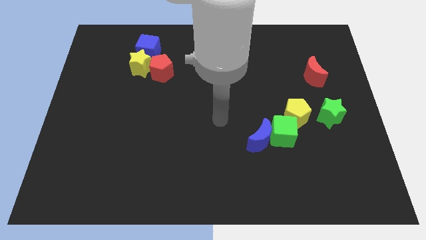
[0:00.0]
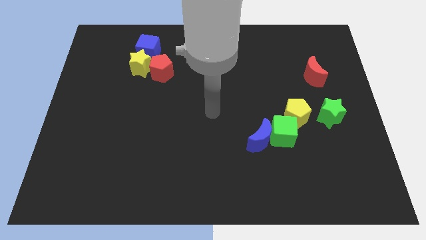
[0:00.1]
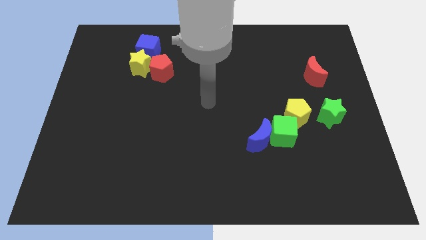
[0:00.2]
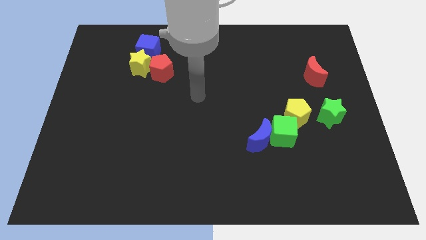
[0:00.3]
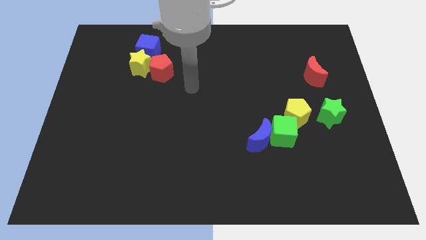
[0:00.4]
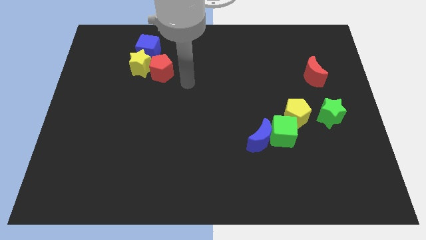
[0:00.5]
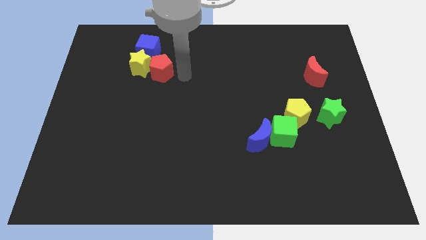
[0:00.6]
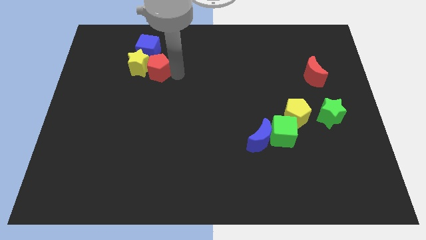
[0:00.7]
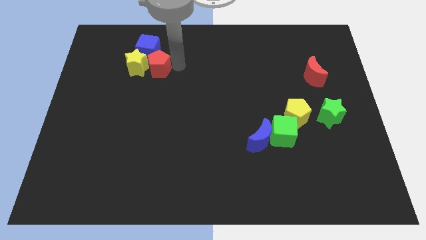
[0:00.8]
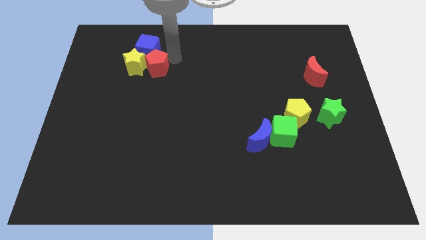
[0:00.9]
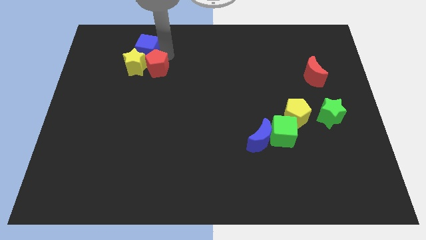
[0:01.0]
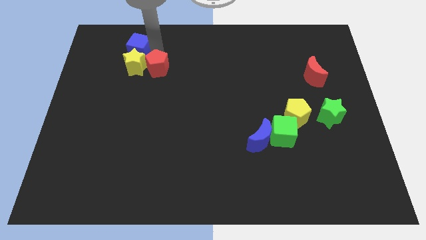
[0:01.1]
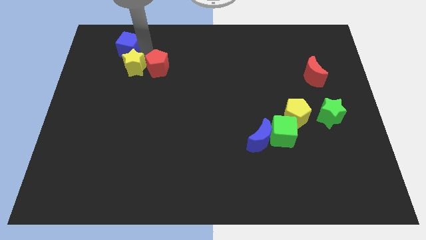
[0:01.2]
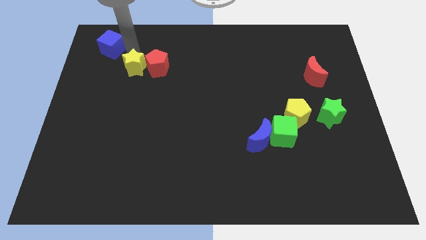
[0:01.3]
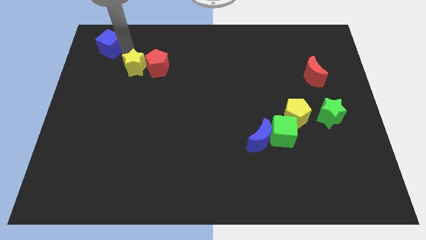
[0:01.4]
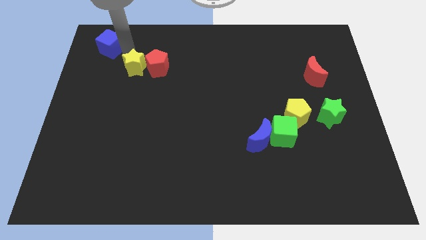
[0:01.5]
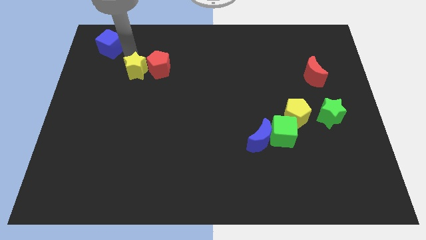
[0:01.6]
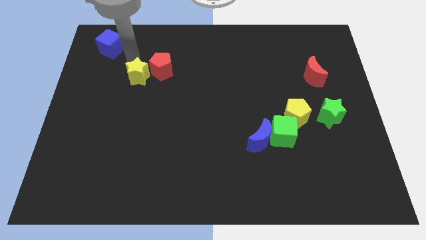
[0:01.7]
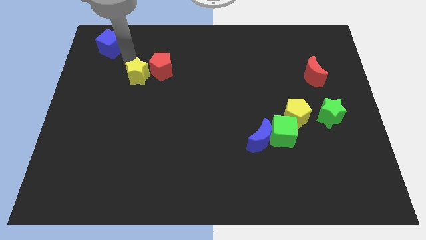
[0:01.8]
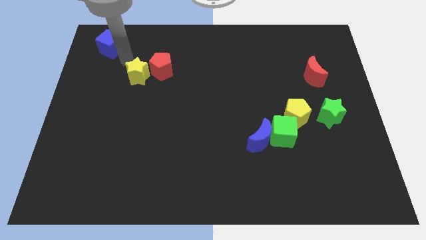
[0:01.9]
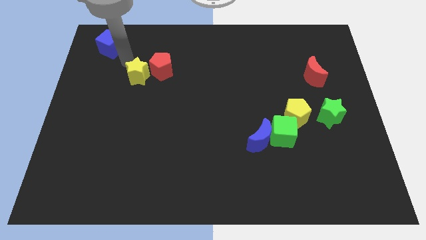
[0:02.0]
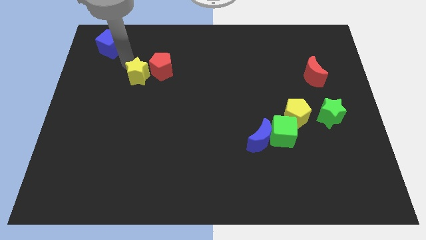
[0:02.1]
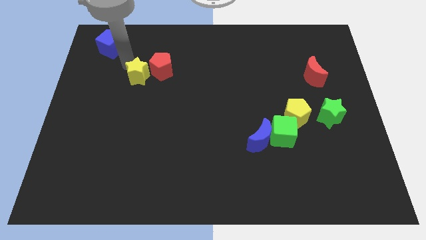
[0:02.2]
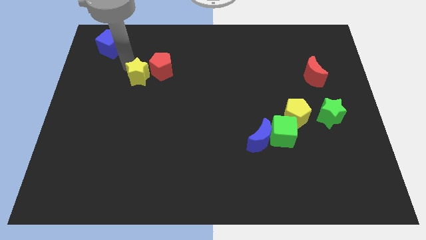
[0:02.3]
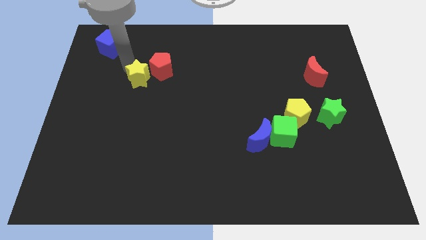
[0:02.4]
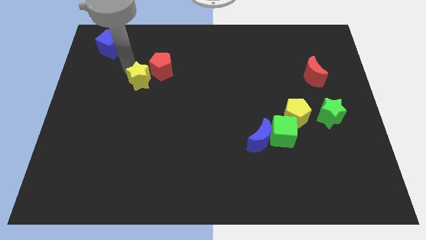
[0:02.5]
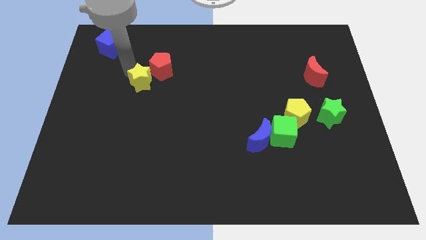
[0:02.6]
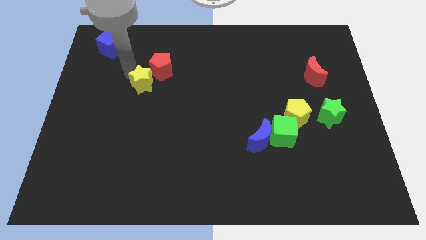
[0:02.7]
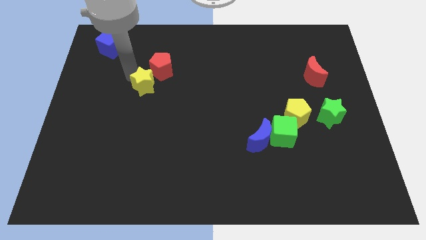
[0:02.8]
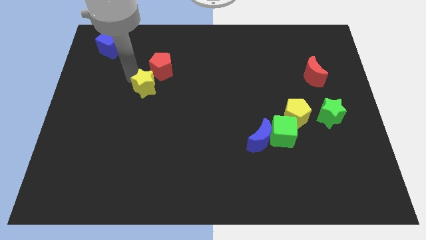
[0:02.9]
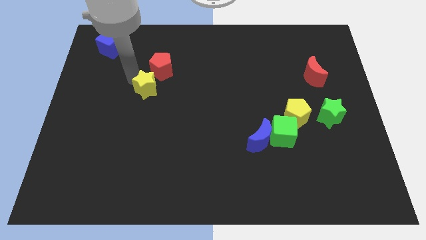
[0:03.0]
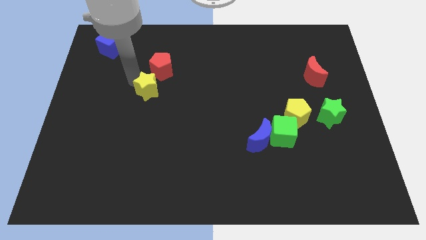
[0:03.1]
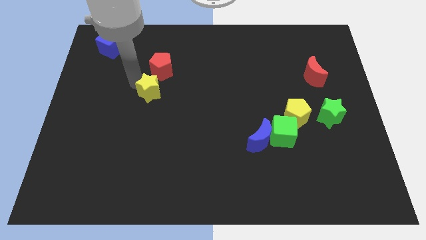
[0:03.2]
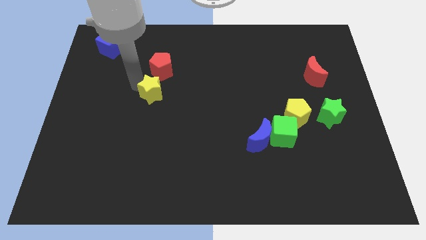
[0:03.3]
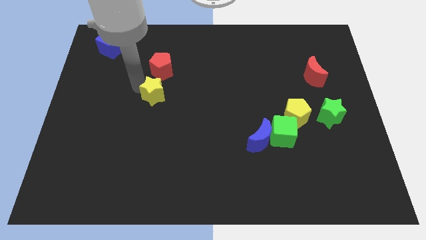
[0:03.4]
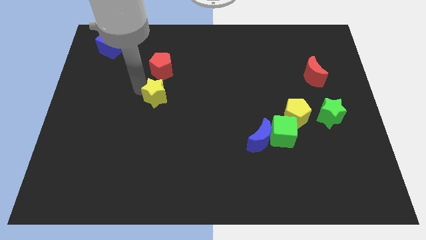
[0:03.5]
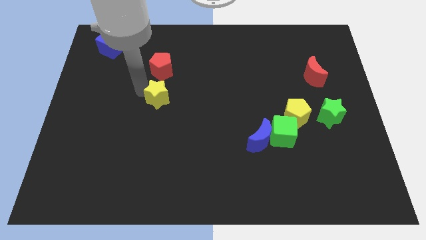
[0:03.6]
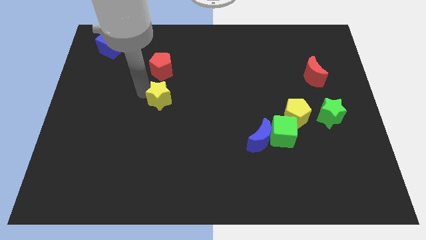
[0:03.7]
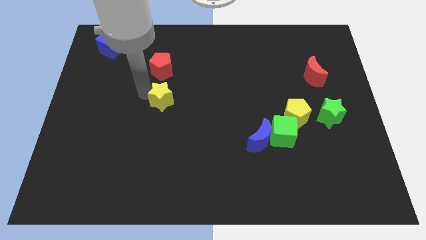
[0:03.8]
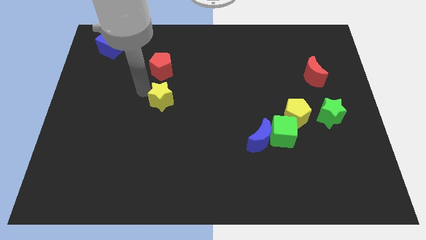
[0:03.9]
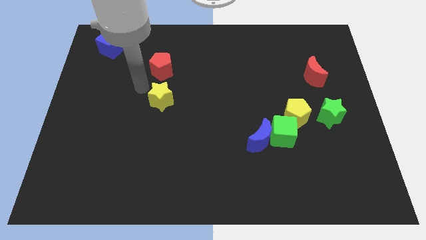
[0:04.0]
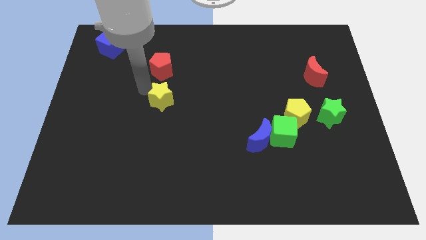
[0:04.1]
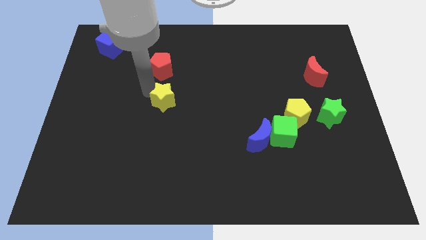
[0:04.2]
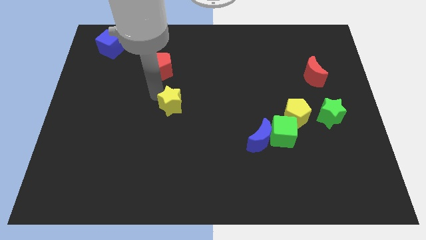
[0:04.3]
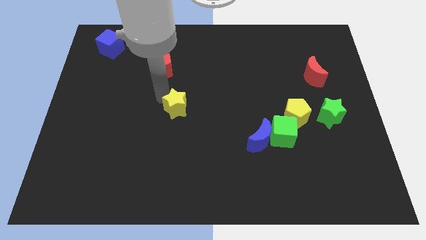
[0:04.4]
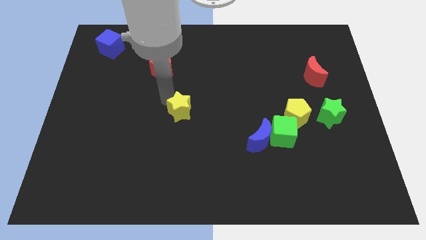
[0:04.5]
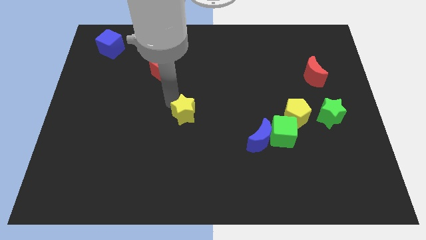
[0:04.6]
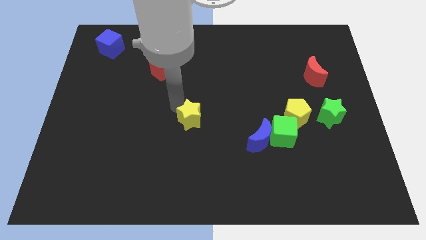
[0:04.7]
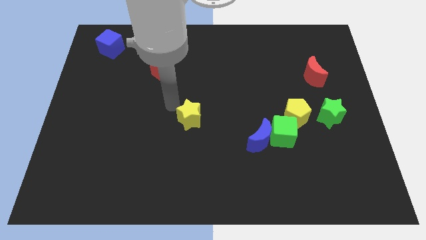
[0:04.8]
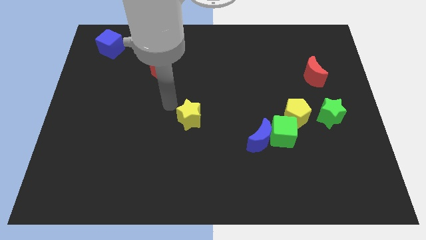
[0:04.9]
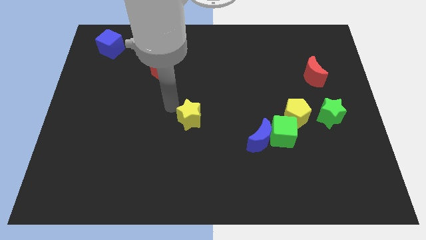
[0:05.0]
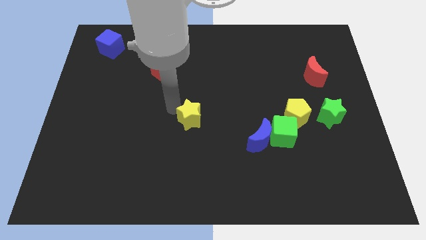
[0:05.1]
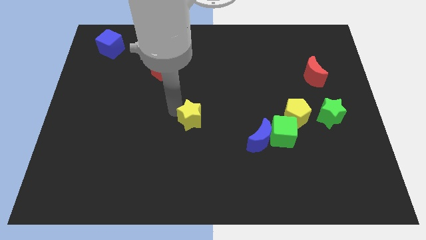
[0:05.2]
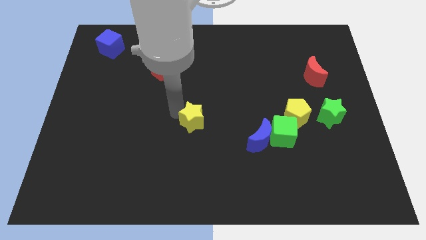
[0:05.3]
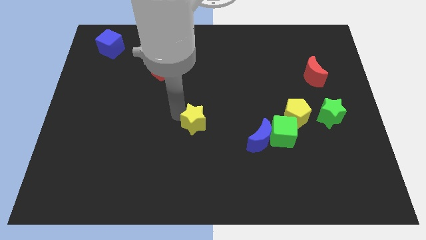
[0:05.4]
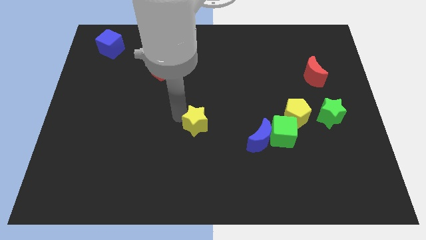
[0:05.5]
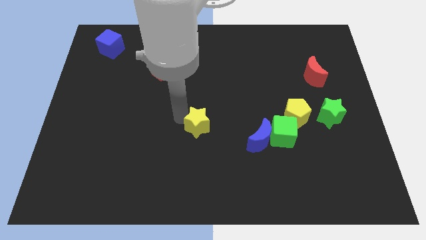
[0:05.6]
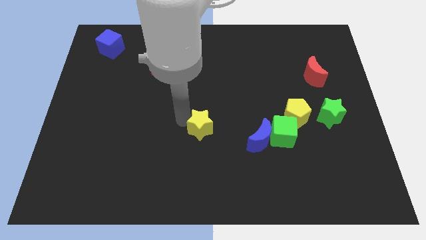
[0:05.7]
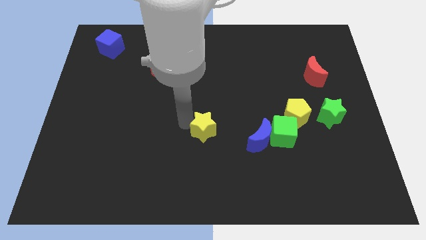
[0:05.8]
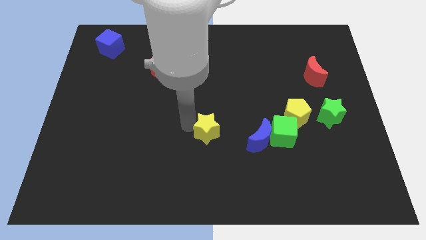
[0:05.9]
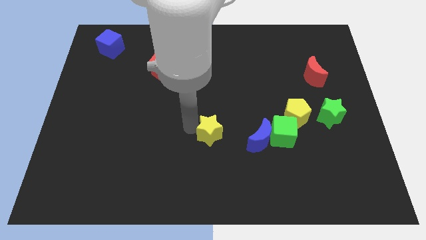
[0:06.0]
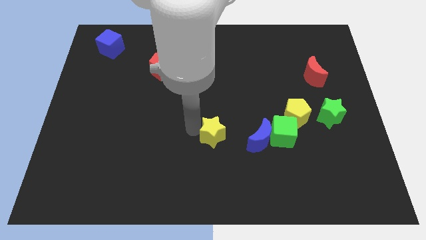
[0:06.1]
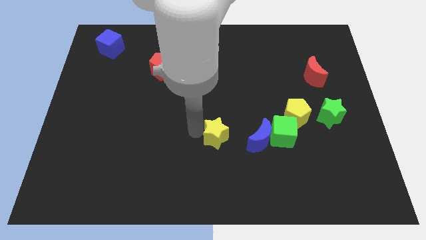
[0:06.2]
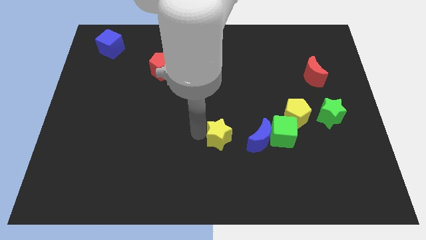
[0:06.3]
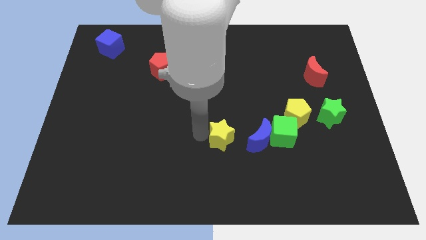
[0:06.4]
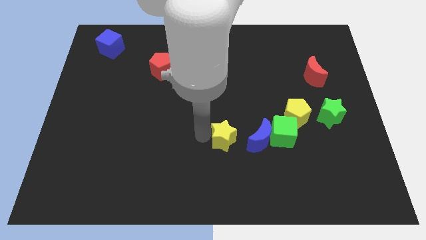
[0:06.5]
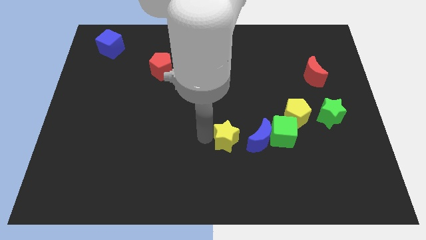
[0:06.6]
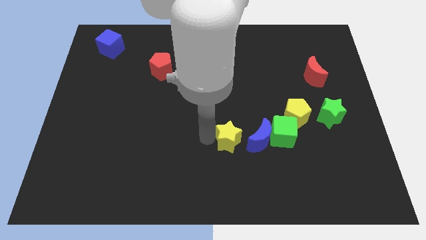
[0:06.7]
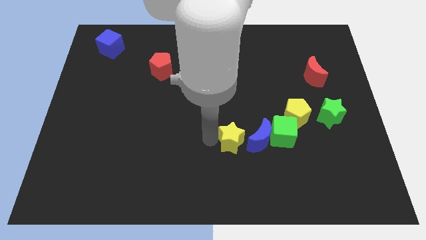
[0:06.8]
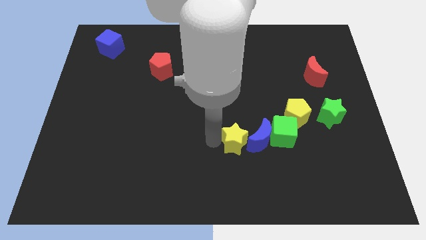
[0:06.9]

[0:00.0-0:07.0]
put the yellow star next to the blue moon
